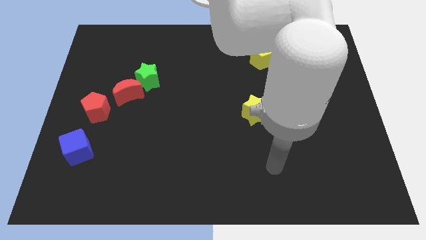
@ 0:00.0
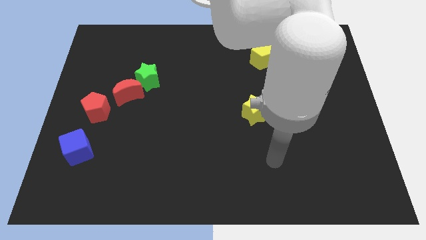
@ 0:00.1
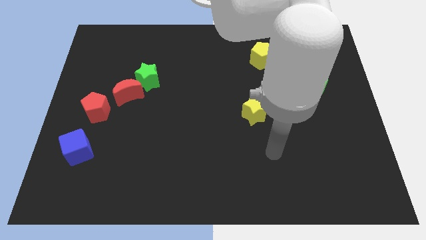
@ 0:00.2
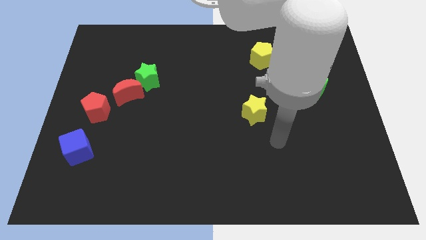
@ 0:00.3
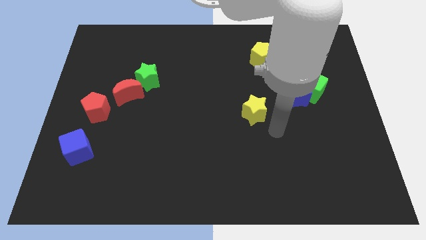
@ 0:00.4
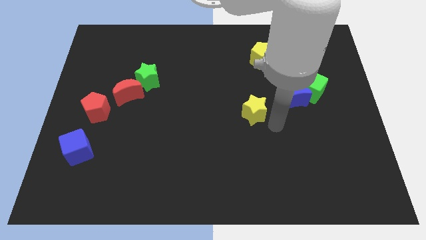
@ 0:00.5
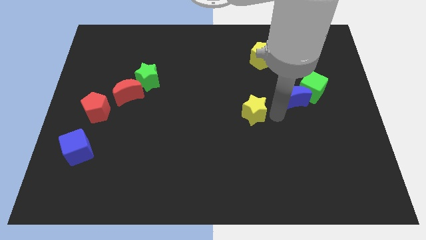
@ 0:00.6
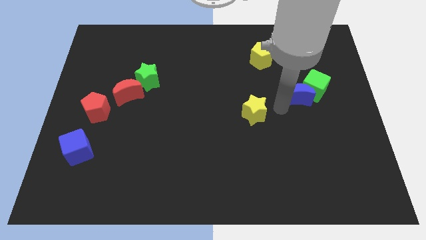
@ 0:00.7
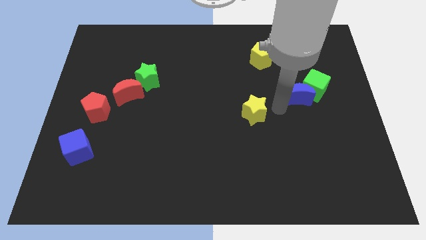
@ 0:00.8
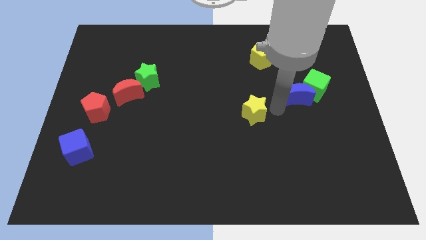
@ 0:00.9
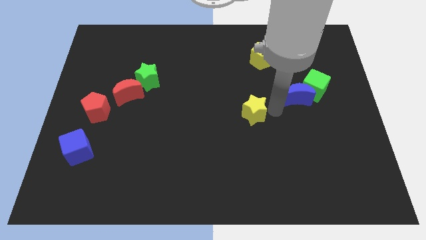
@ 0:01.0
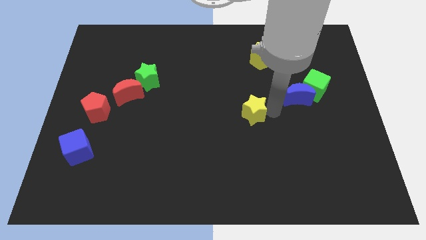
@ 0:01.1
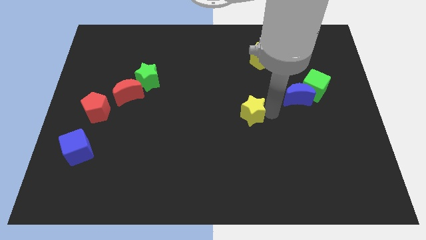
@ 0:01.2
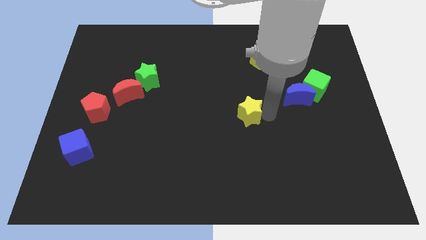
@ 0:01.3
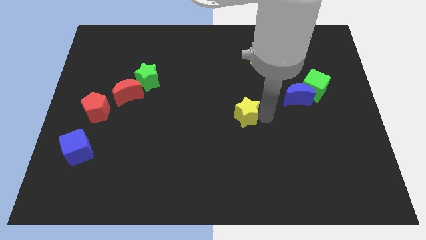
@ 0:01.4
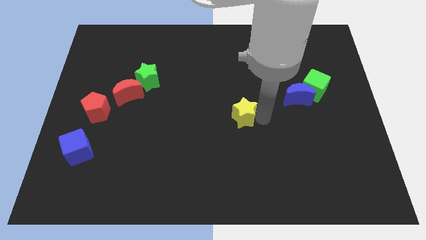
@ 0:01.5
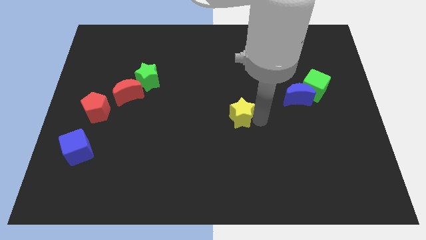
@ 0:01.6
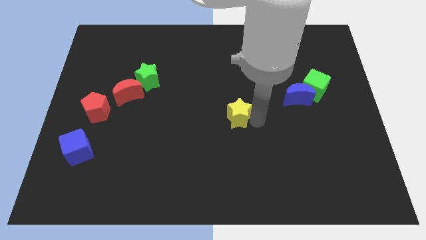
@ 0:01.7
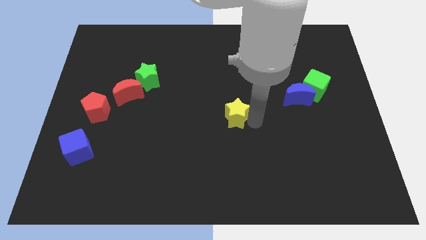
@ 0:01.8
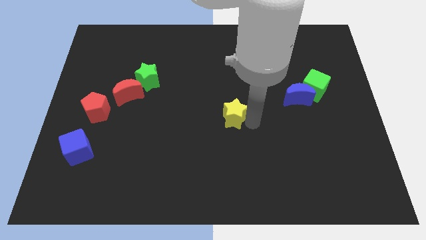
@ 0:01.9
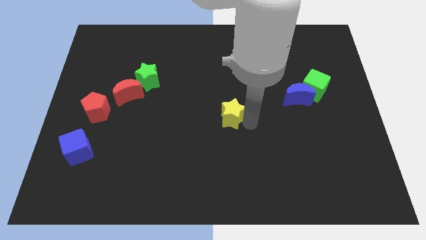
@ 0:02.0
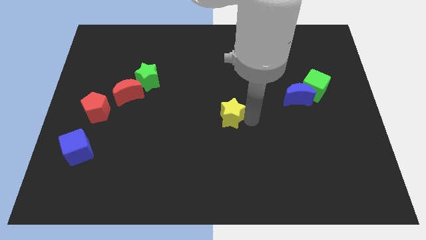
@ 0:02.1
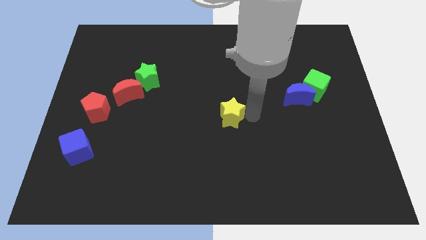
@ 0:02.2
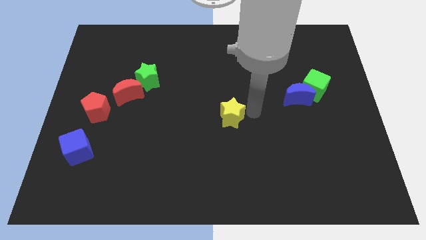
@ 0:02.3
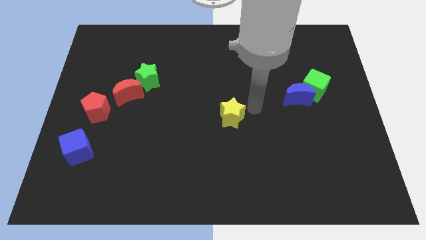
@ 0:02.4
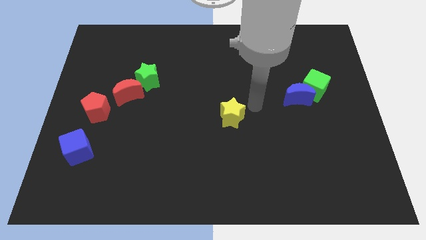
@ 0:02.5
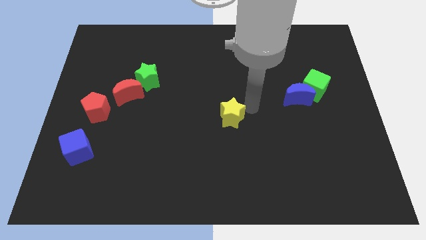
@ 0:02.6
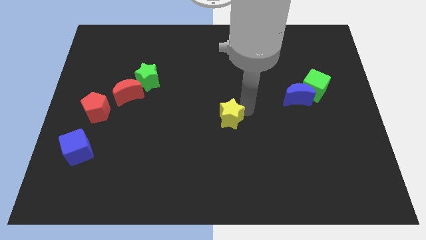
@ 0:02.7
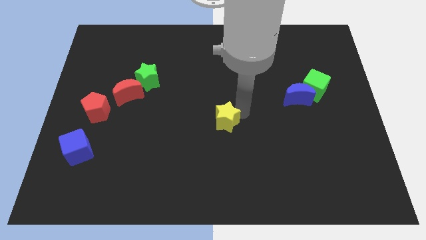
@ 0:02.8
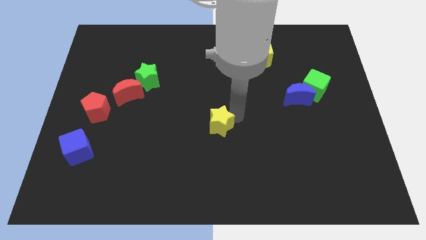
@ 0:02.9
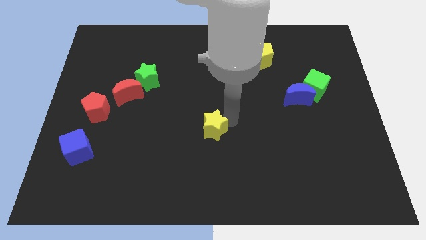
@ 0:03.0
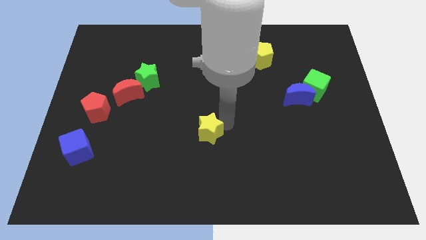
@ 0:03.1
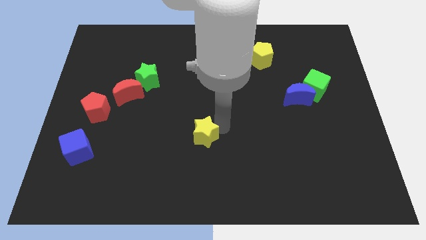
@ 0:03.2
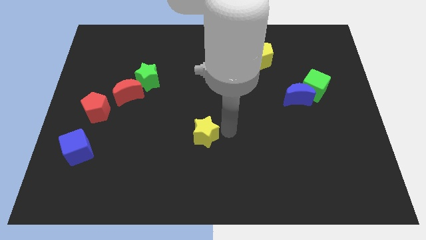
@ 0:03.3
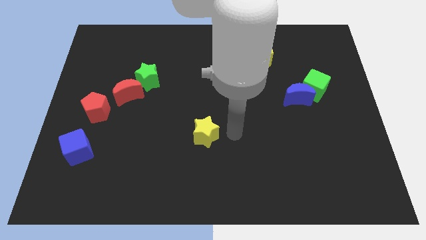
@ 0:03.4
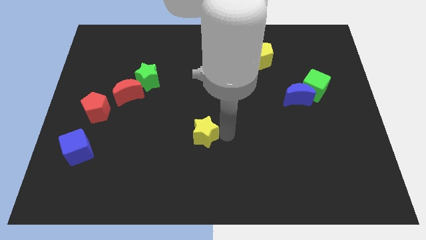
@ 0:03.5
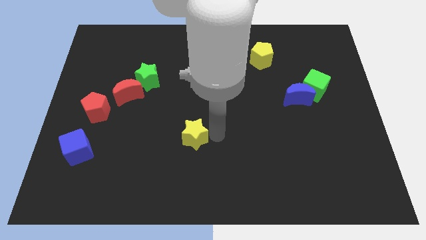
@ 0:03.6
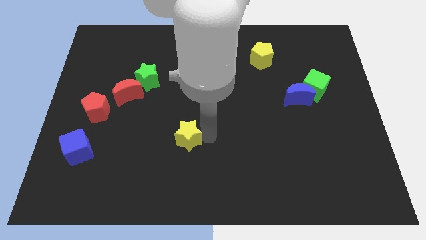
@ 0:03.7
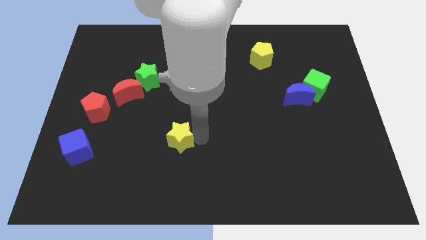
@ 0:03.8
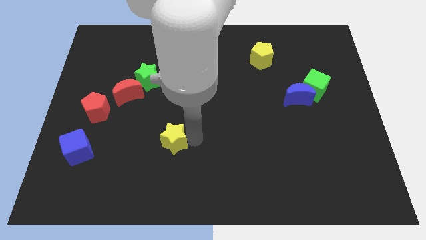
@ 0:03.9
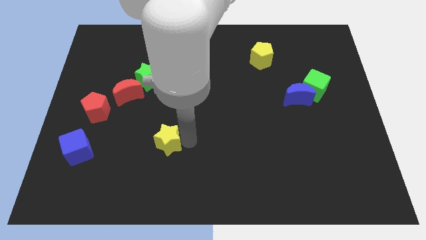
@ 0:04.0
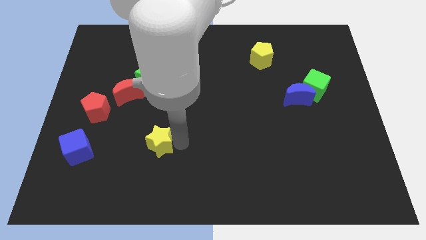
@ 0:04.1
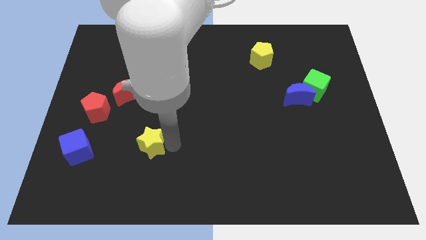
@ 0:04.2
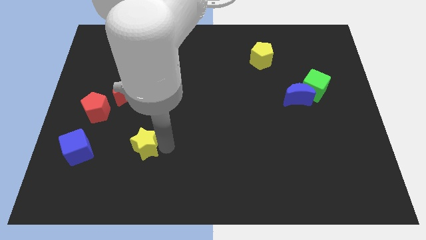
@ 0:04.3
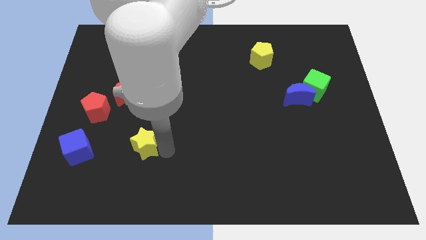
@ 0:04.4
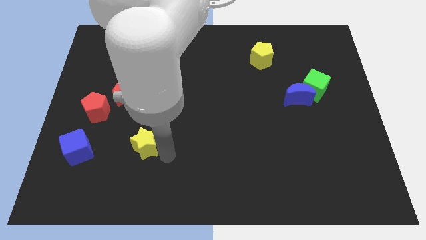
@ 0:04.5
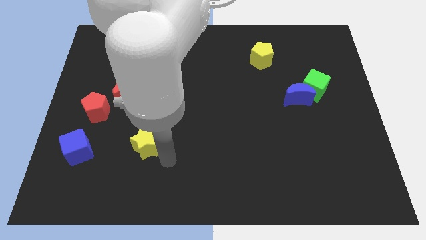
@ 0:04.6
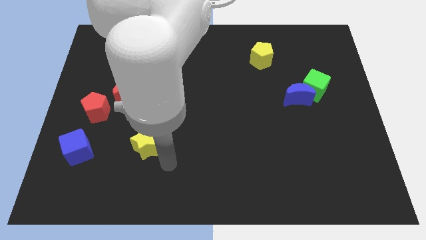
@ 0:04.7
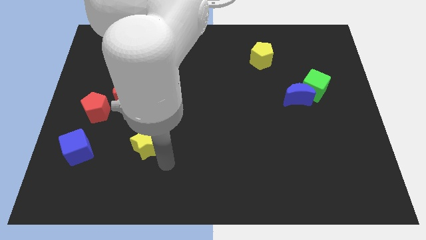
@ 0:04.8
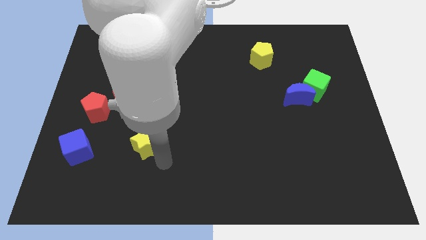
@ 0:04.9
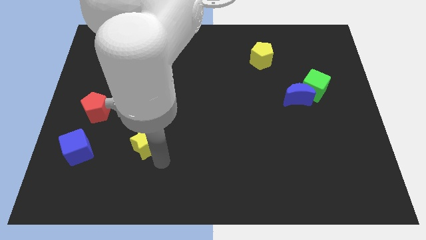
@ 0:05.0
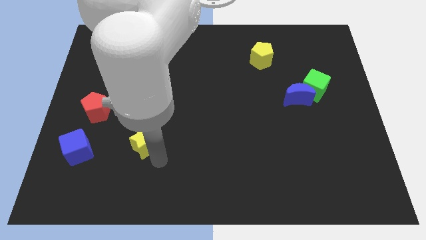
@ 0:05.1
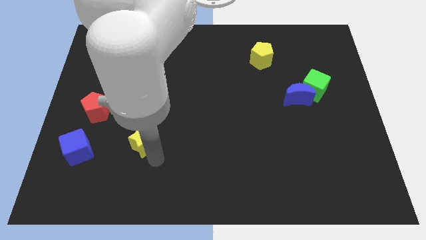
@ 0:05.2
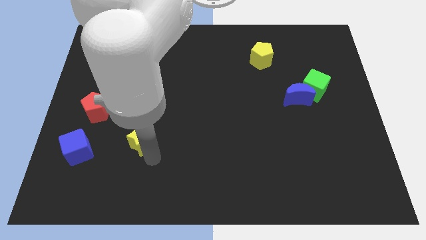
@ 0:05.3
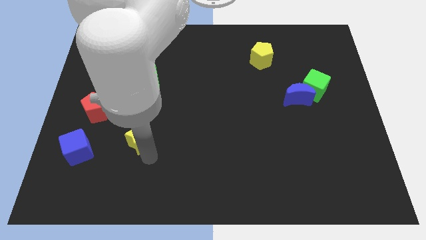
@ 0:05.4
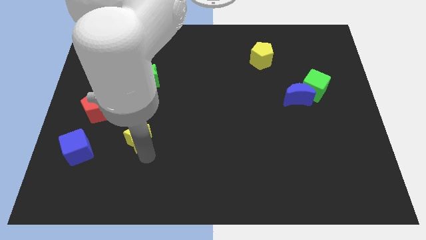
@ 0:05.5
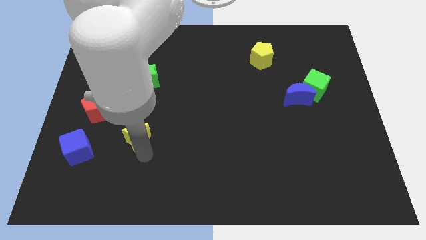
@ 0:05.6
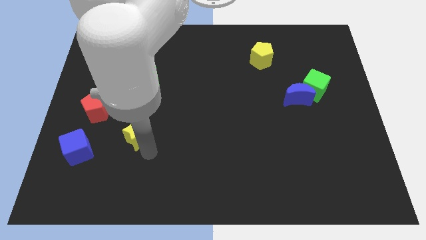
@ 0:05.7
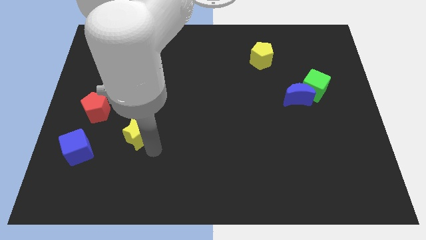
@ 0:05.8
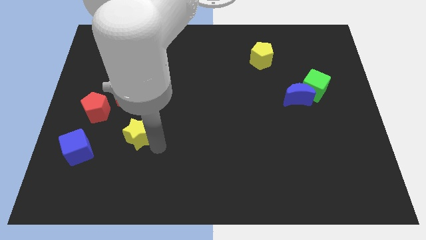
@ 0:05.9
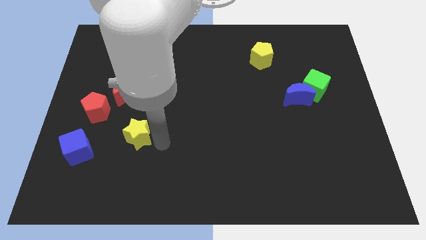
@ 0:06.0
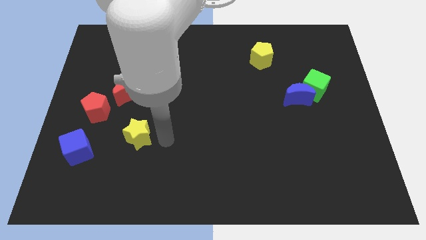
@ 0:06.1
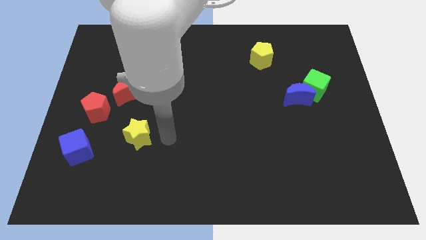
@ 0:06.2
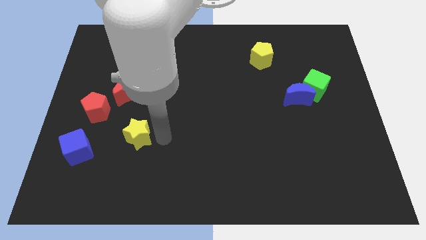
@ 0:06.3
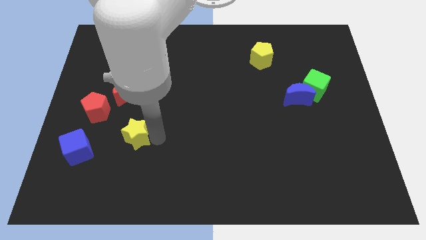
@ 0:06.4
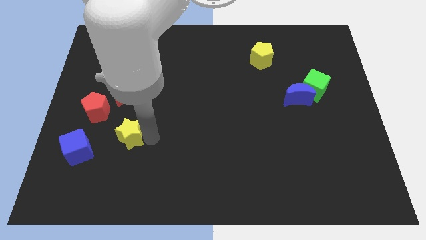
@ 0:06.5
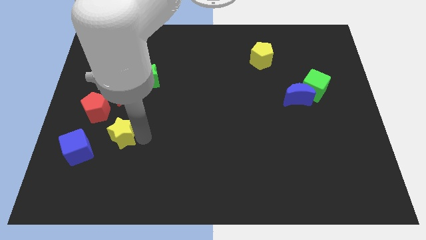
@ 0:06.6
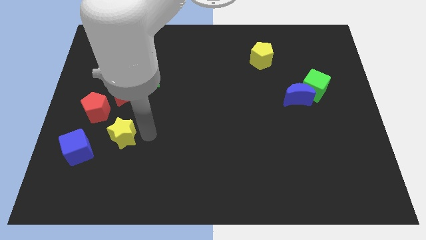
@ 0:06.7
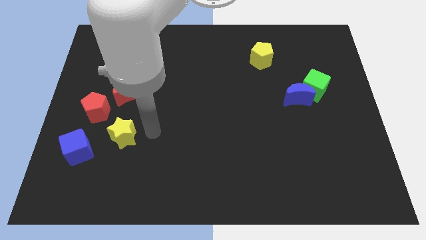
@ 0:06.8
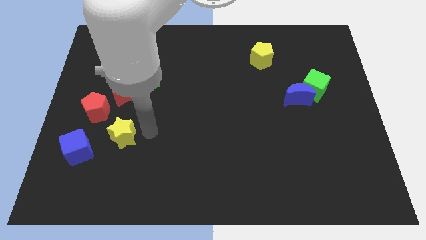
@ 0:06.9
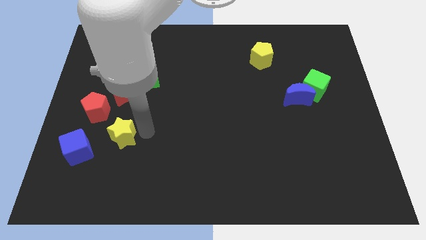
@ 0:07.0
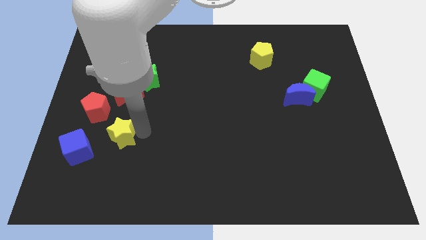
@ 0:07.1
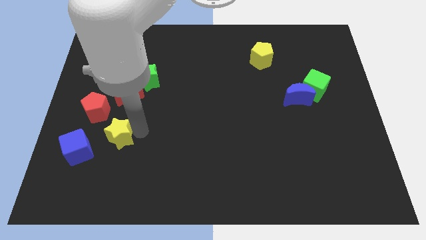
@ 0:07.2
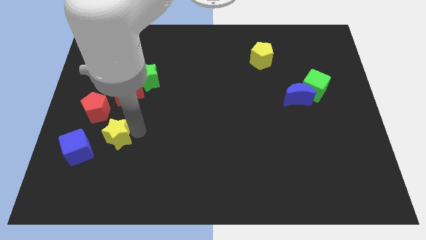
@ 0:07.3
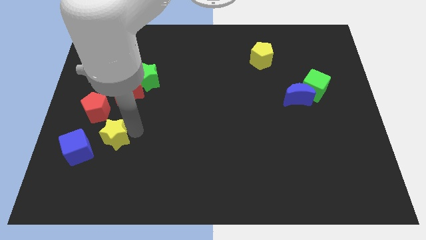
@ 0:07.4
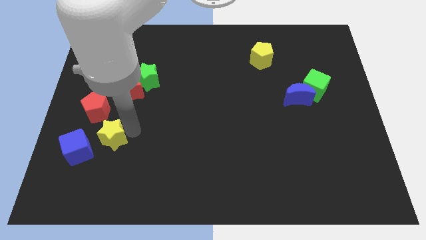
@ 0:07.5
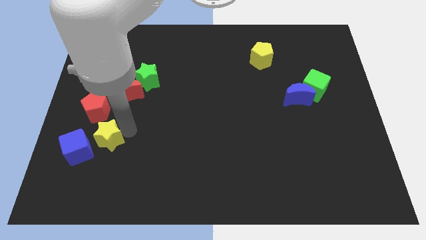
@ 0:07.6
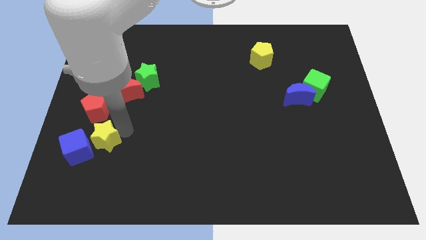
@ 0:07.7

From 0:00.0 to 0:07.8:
push the yellow star towards the blue cube
